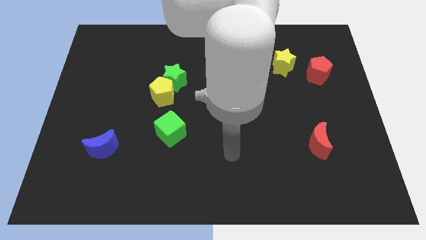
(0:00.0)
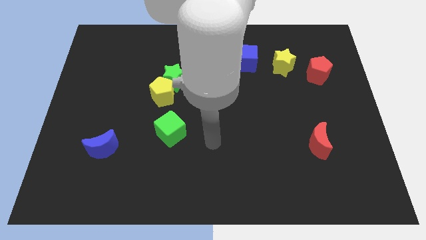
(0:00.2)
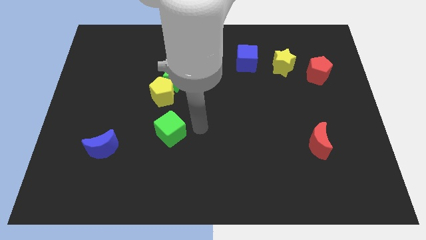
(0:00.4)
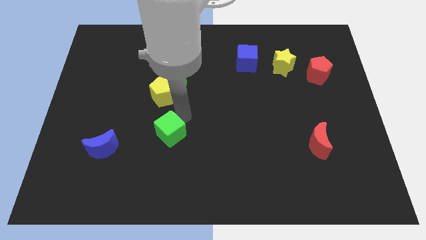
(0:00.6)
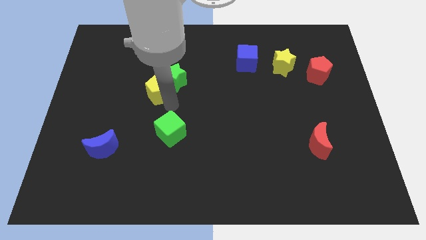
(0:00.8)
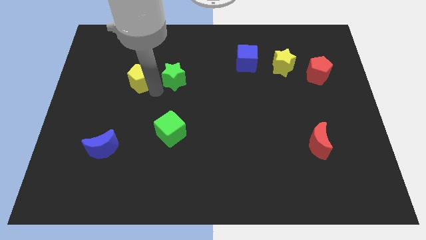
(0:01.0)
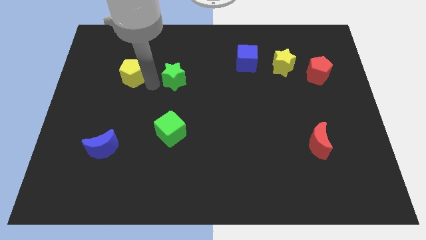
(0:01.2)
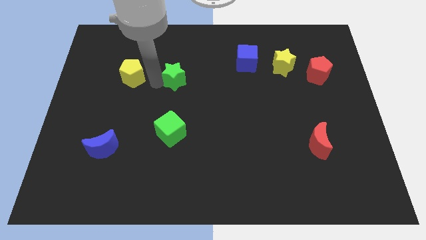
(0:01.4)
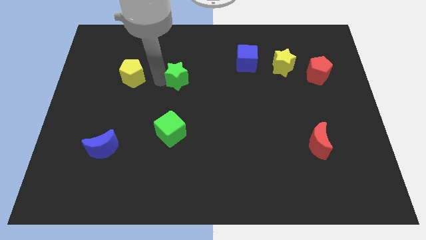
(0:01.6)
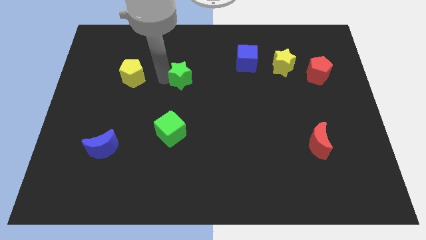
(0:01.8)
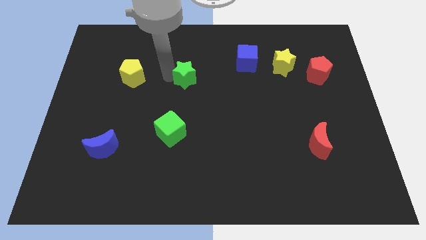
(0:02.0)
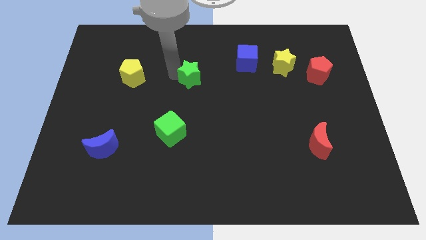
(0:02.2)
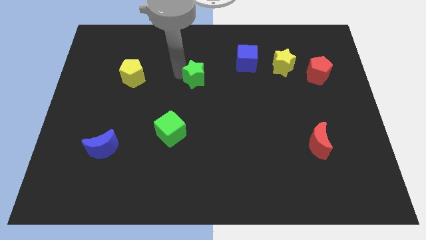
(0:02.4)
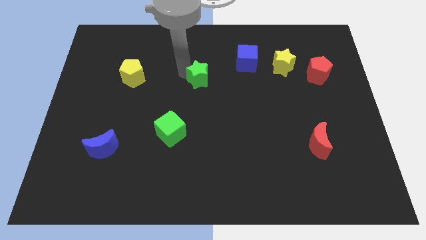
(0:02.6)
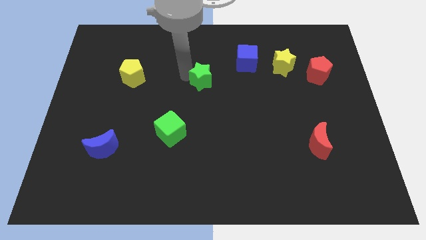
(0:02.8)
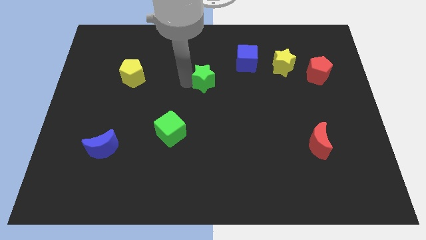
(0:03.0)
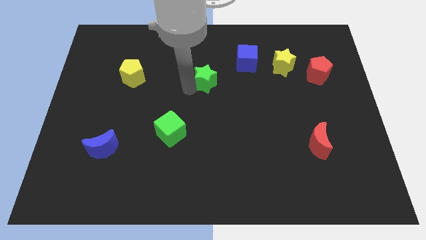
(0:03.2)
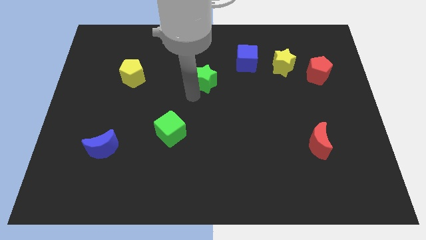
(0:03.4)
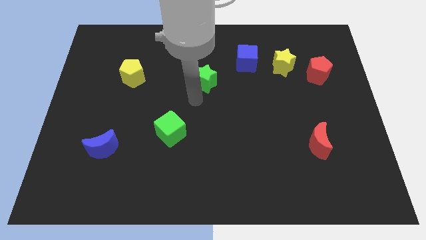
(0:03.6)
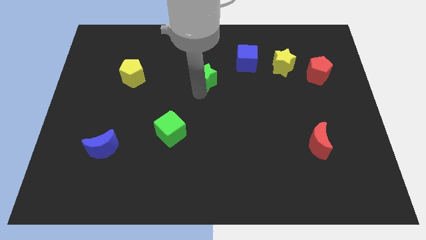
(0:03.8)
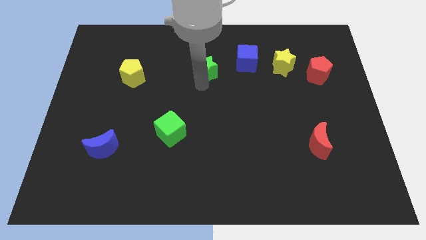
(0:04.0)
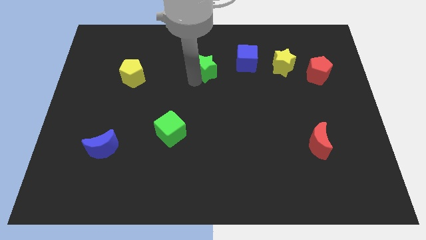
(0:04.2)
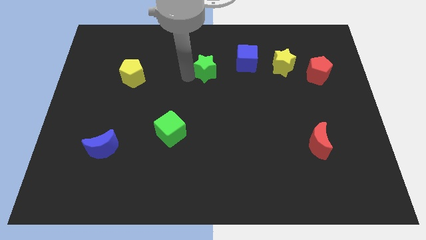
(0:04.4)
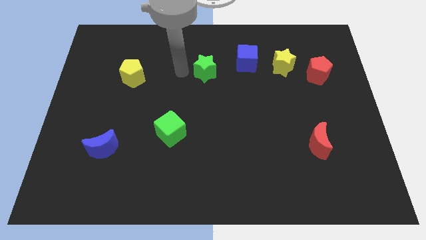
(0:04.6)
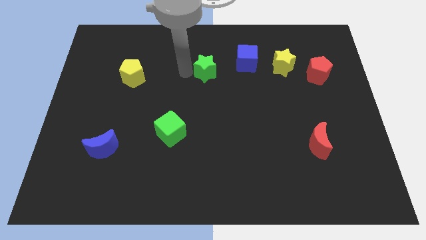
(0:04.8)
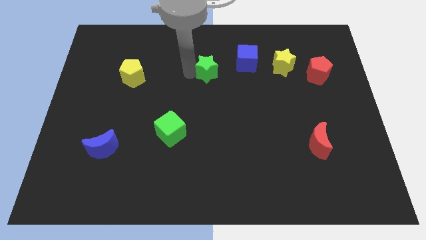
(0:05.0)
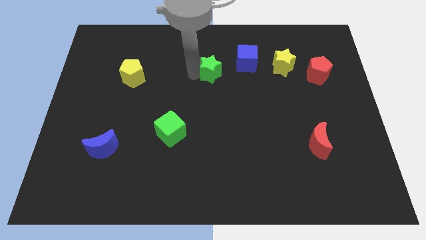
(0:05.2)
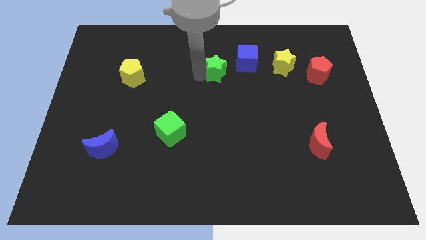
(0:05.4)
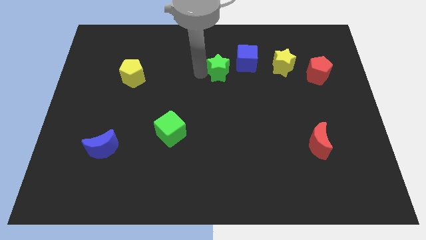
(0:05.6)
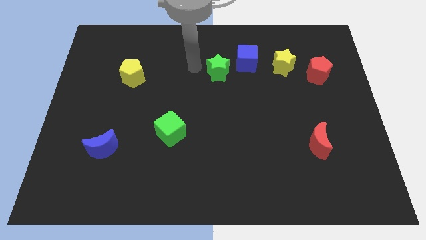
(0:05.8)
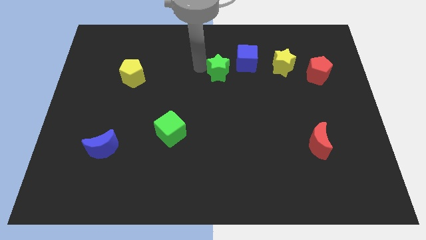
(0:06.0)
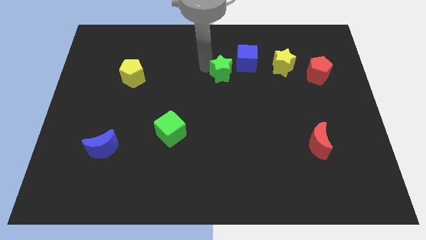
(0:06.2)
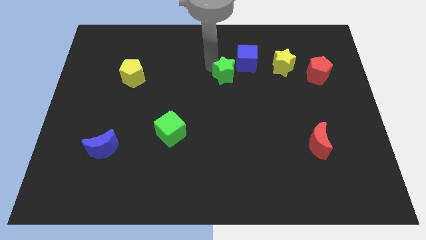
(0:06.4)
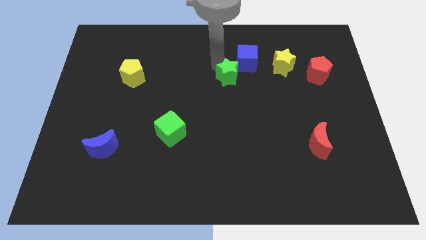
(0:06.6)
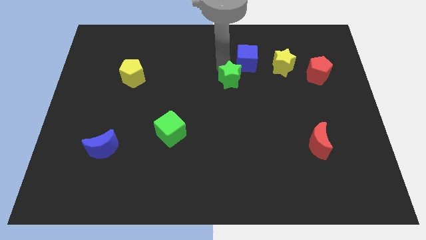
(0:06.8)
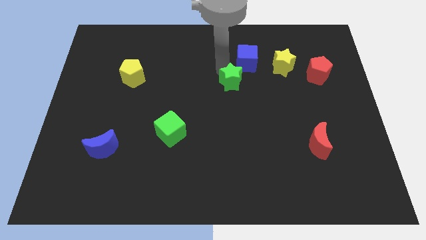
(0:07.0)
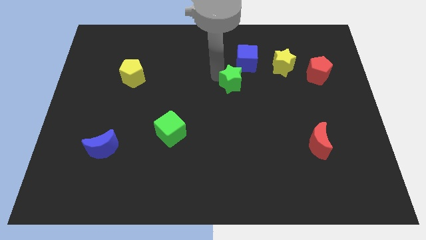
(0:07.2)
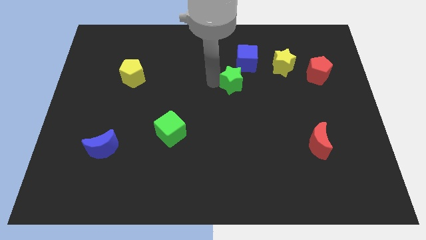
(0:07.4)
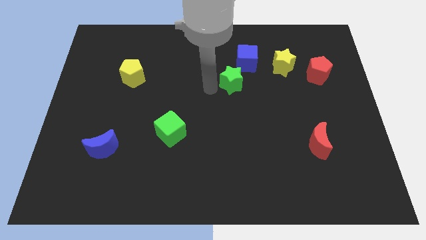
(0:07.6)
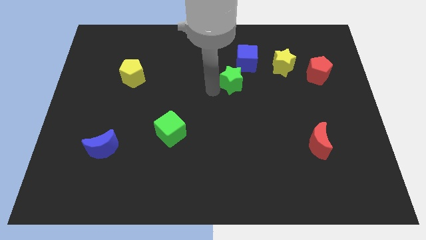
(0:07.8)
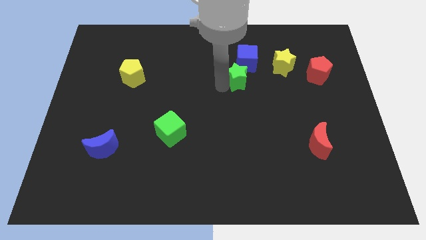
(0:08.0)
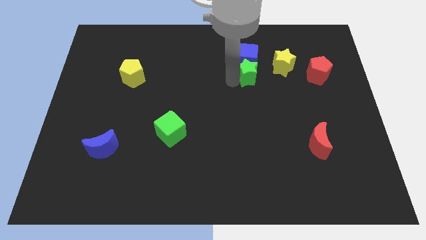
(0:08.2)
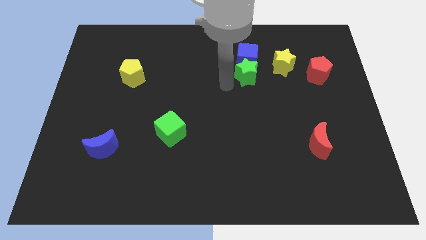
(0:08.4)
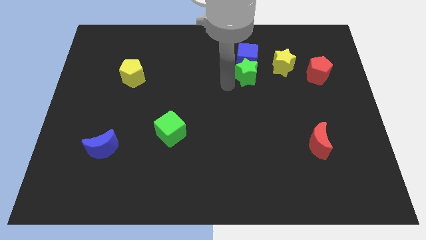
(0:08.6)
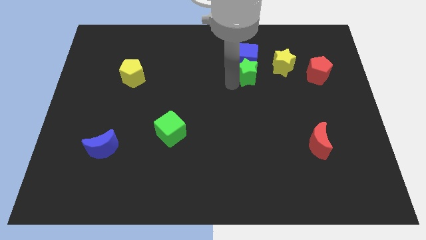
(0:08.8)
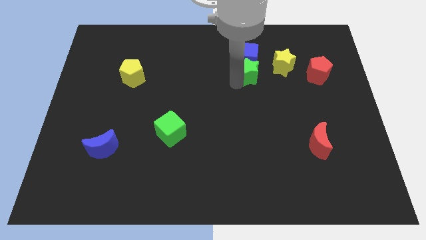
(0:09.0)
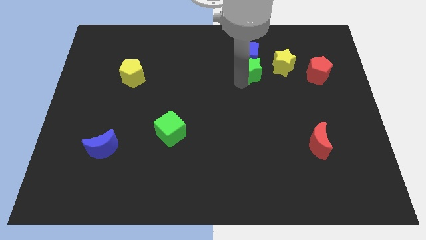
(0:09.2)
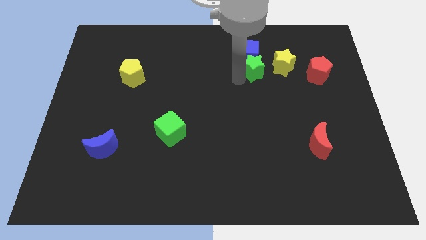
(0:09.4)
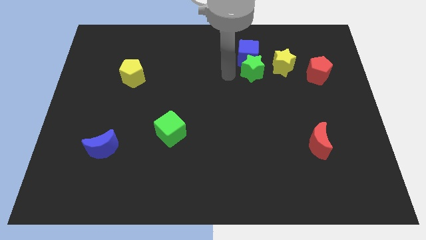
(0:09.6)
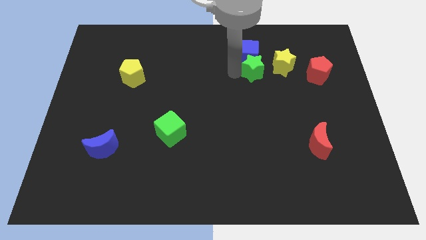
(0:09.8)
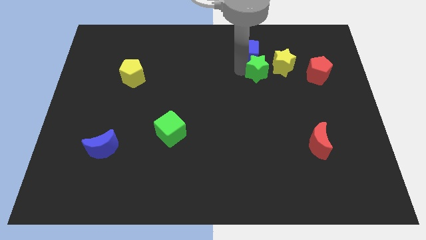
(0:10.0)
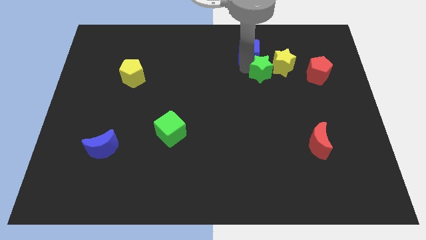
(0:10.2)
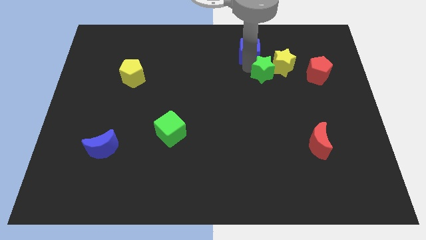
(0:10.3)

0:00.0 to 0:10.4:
slide the green star towards the yellow star

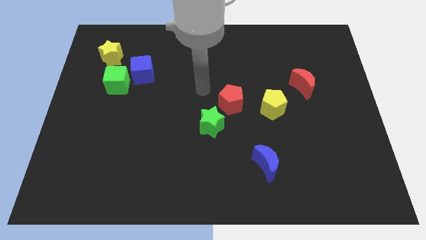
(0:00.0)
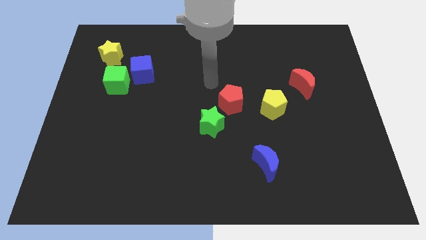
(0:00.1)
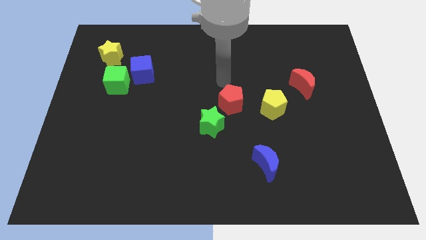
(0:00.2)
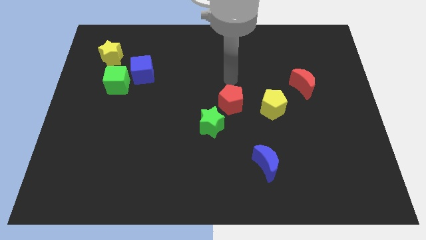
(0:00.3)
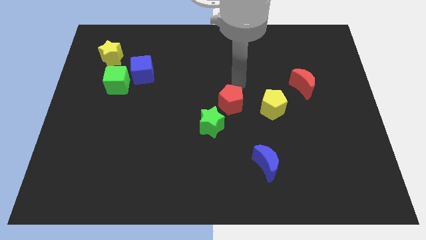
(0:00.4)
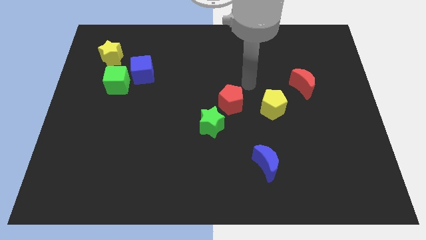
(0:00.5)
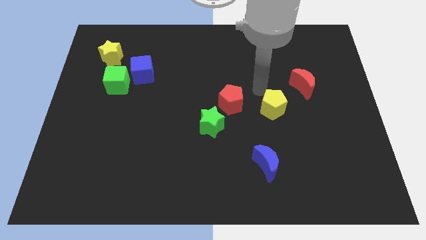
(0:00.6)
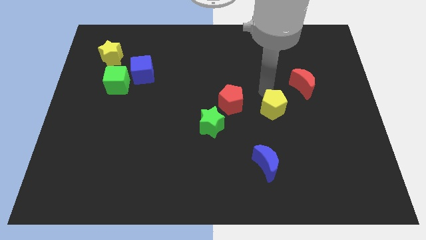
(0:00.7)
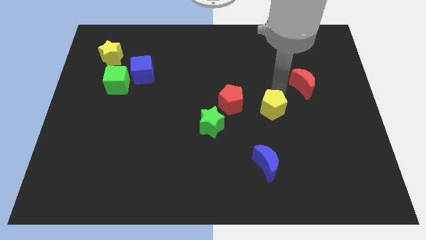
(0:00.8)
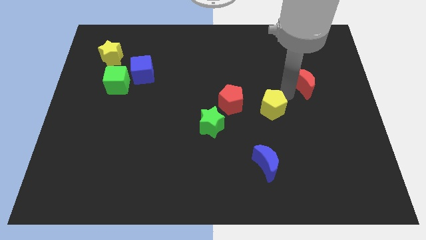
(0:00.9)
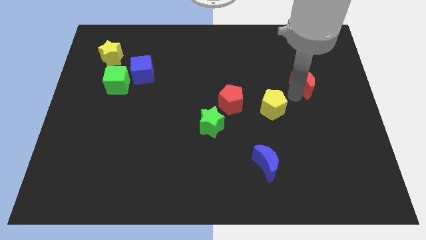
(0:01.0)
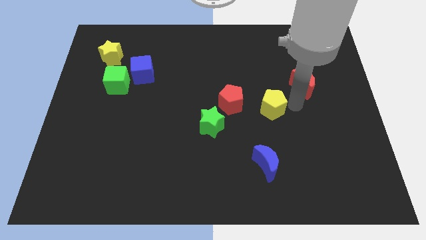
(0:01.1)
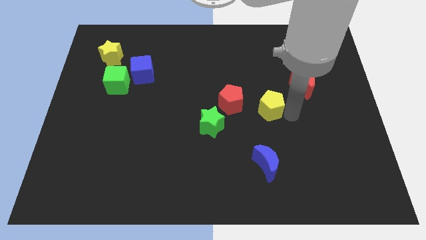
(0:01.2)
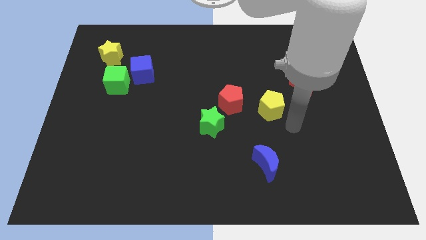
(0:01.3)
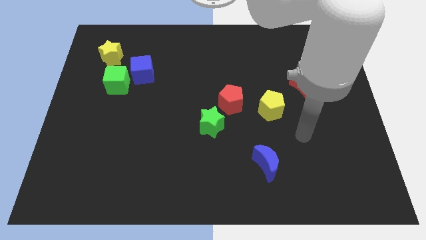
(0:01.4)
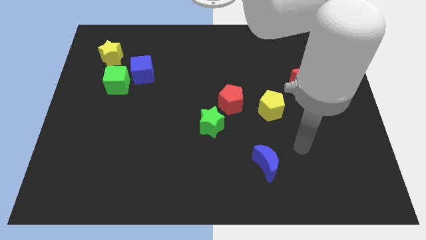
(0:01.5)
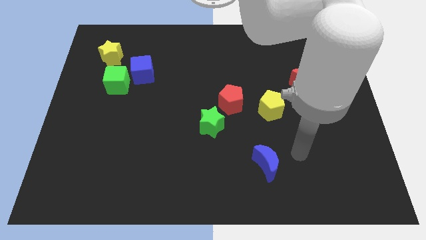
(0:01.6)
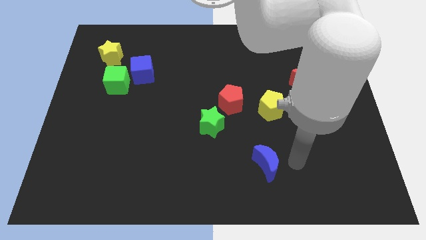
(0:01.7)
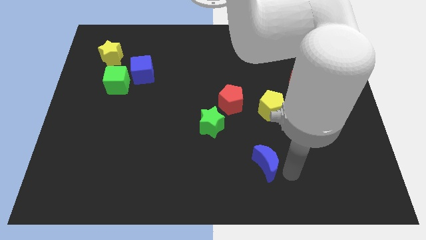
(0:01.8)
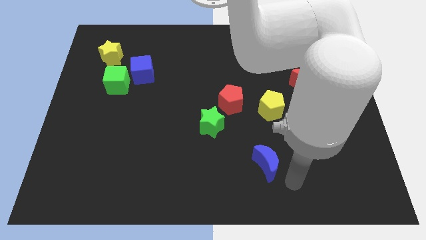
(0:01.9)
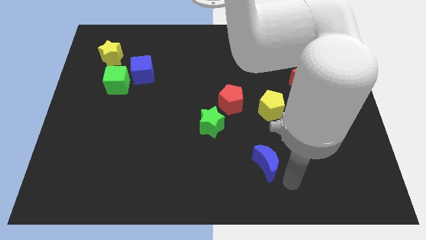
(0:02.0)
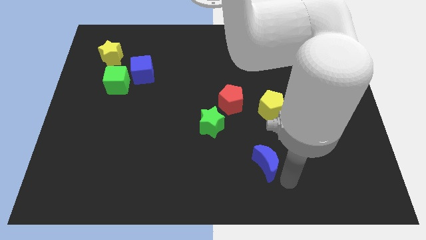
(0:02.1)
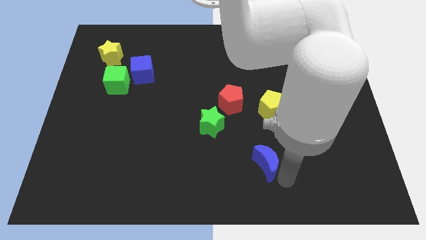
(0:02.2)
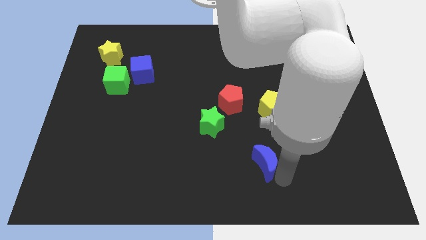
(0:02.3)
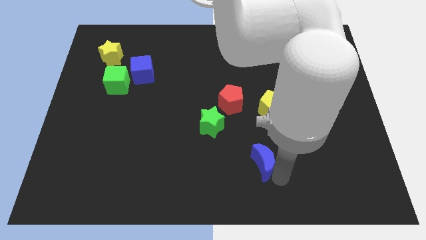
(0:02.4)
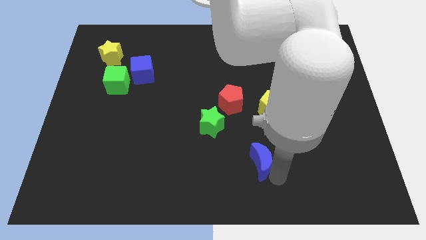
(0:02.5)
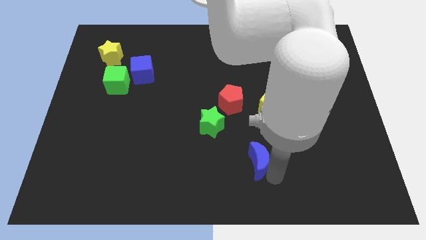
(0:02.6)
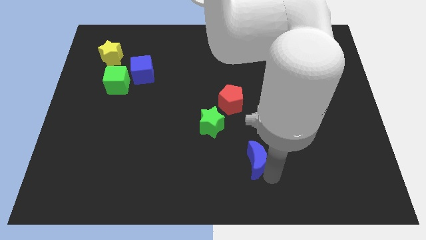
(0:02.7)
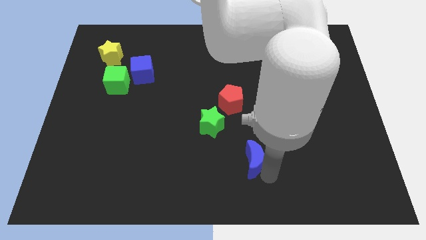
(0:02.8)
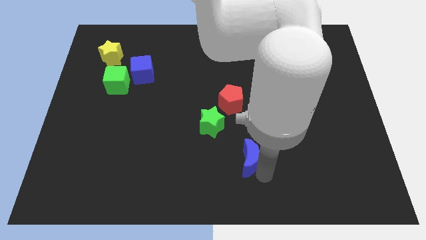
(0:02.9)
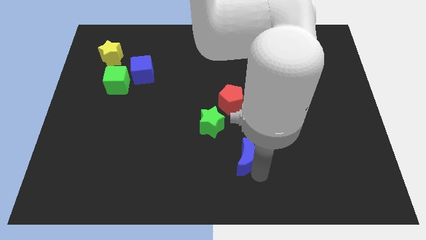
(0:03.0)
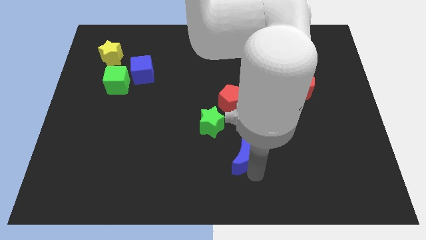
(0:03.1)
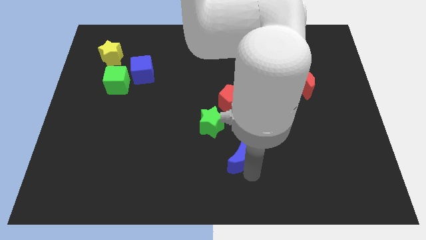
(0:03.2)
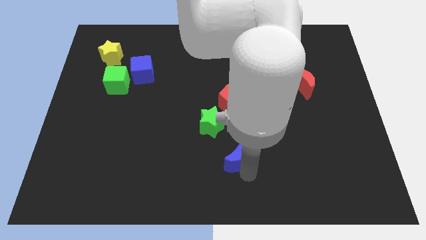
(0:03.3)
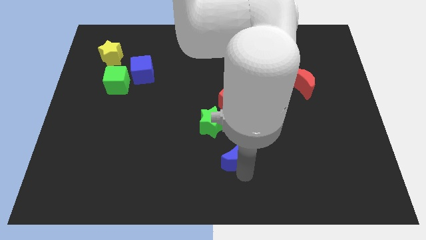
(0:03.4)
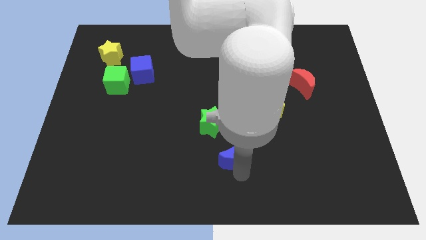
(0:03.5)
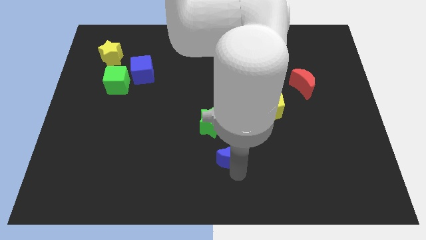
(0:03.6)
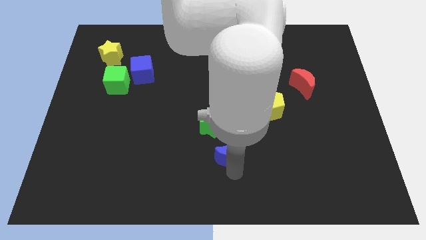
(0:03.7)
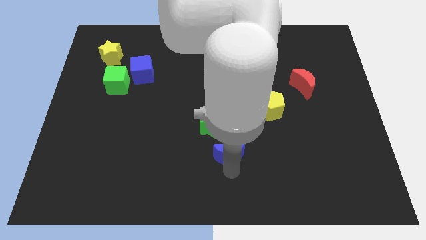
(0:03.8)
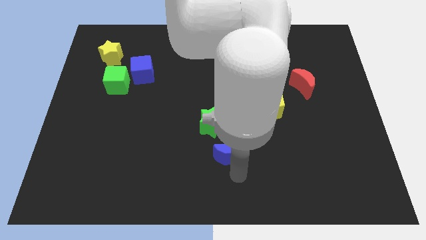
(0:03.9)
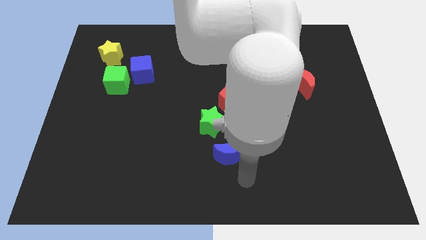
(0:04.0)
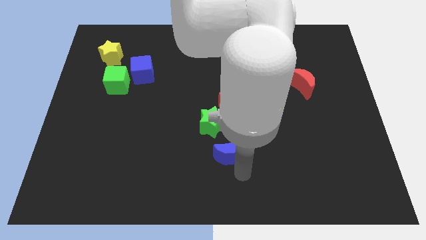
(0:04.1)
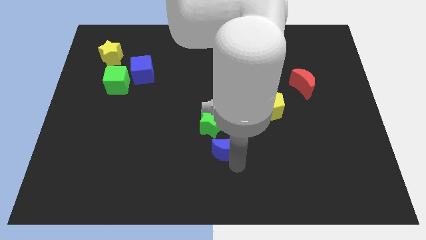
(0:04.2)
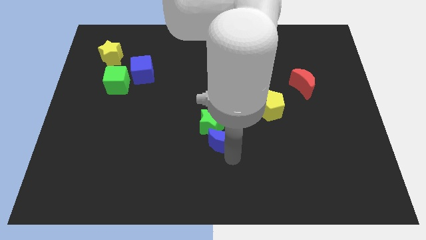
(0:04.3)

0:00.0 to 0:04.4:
put the blue moon close to the green star
